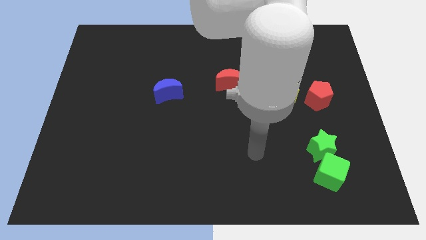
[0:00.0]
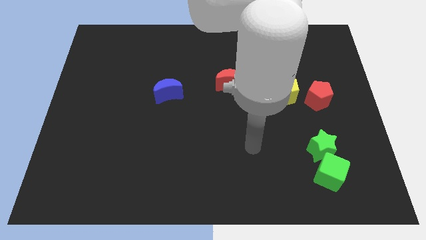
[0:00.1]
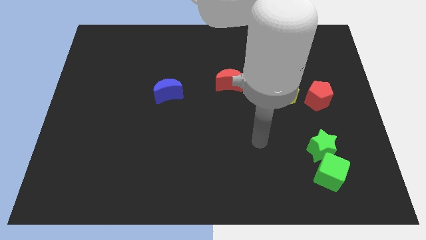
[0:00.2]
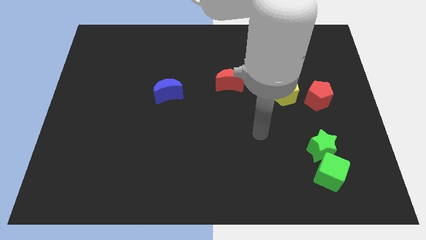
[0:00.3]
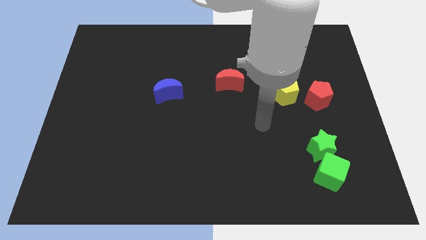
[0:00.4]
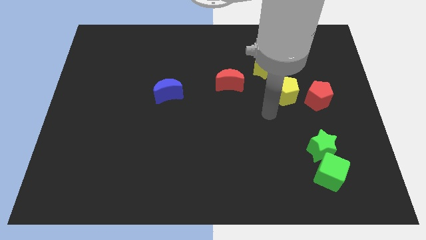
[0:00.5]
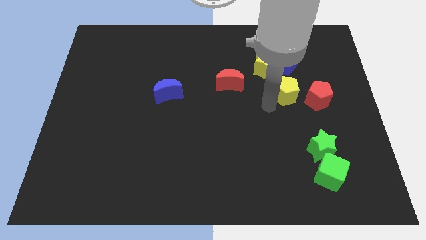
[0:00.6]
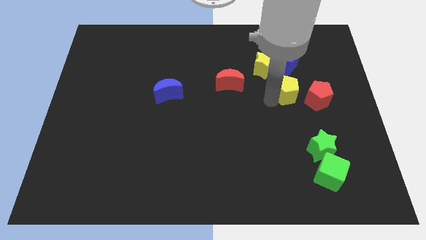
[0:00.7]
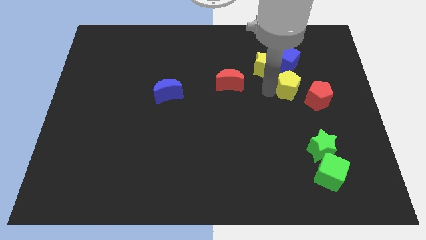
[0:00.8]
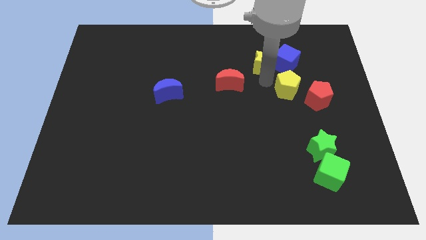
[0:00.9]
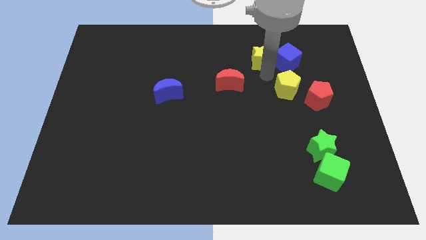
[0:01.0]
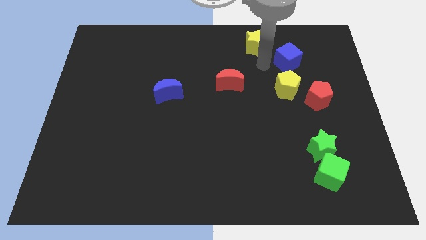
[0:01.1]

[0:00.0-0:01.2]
separate the blue cube from the yellow star

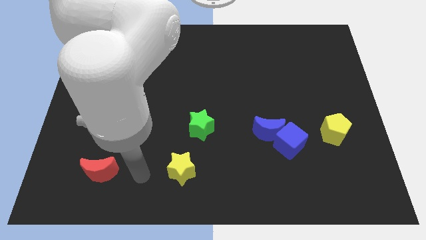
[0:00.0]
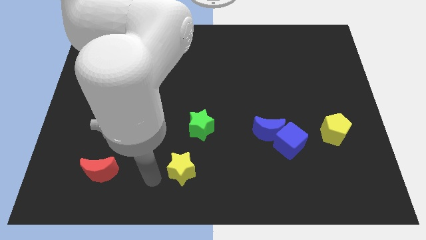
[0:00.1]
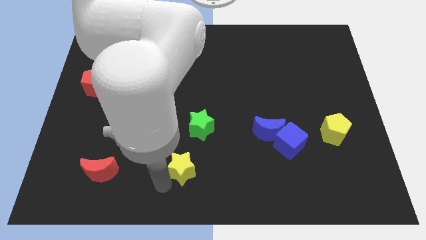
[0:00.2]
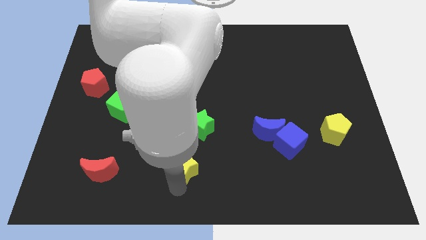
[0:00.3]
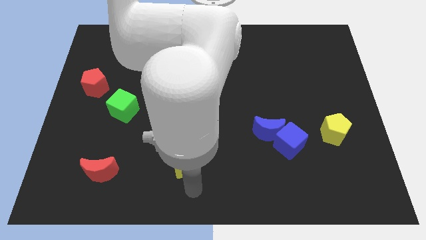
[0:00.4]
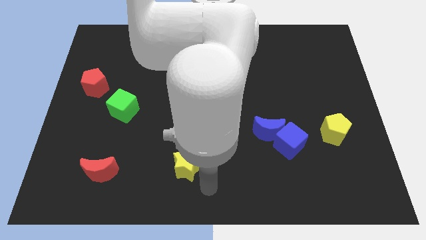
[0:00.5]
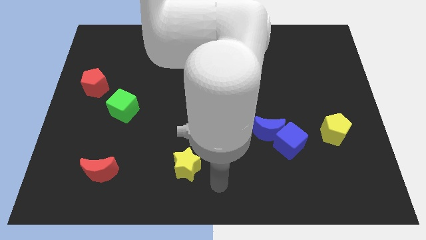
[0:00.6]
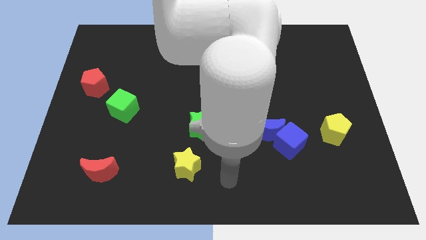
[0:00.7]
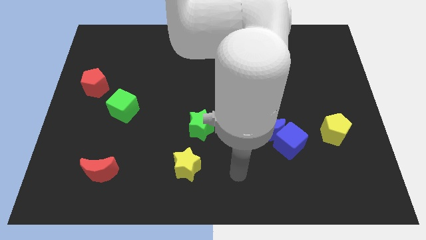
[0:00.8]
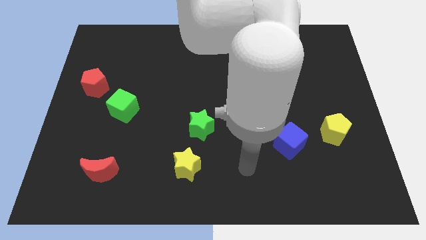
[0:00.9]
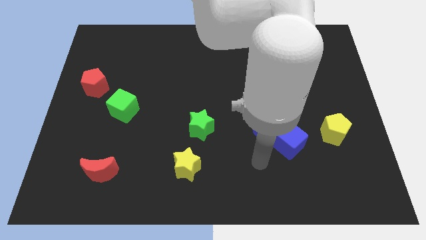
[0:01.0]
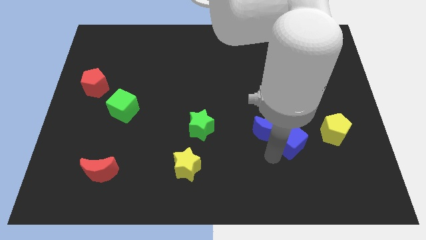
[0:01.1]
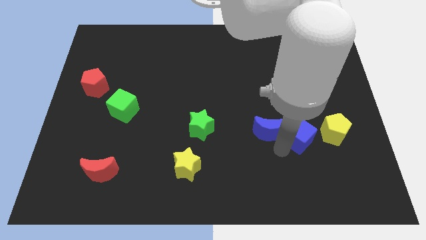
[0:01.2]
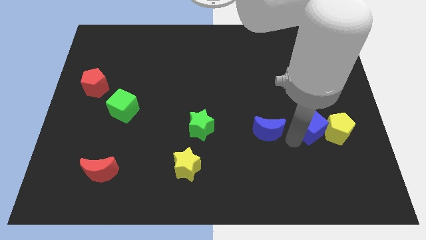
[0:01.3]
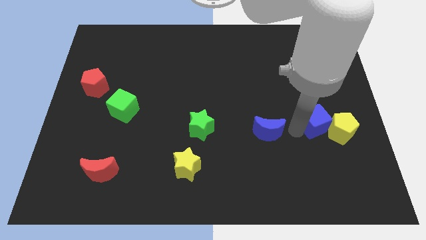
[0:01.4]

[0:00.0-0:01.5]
separate the blue moon from the blue cube

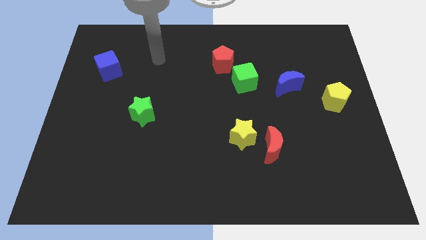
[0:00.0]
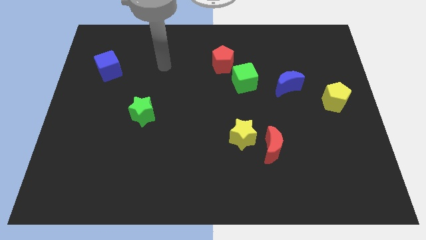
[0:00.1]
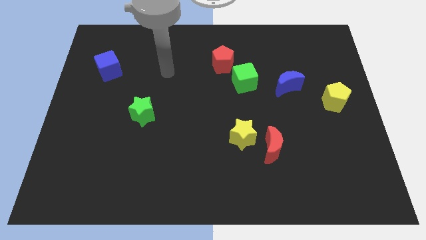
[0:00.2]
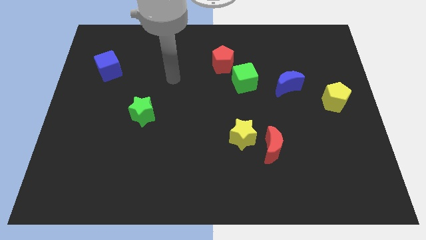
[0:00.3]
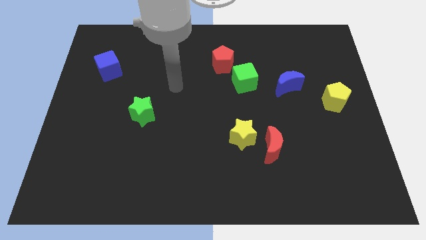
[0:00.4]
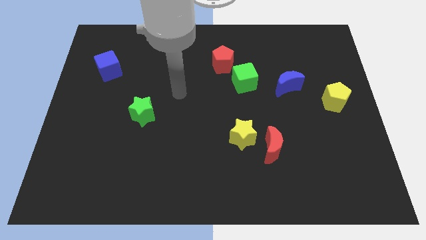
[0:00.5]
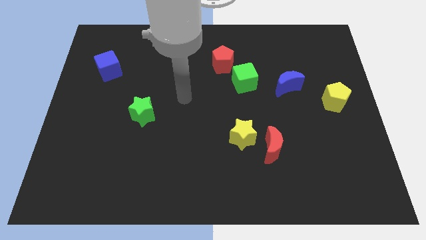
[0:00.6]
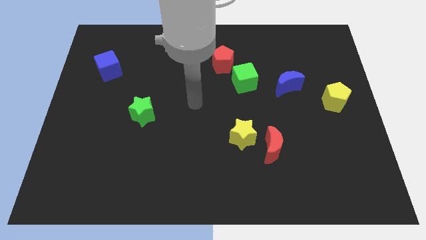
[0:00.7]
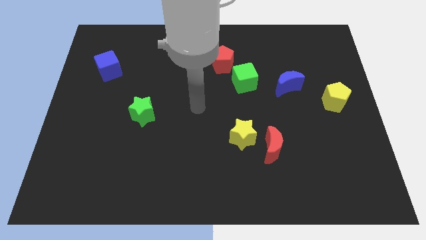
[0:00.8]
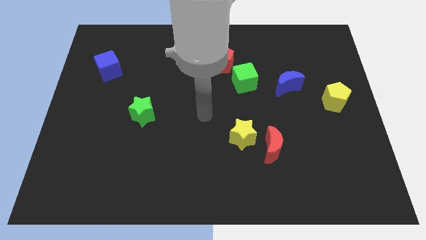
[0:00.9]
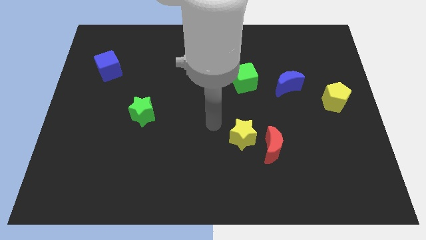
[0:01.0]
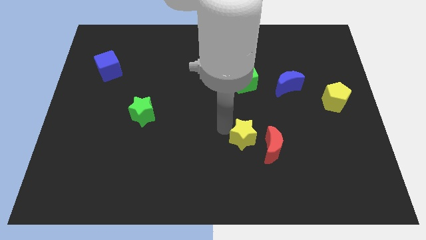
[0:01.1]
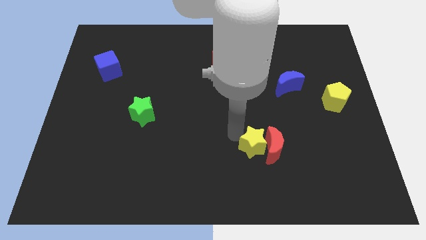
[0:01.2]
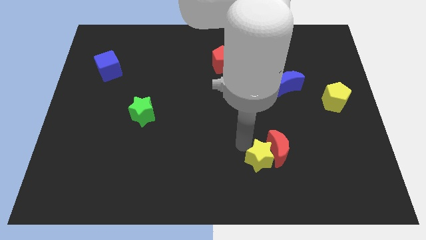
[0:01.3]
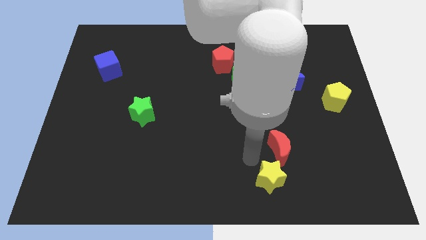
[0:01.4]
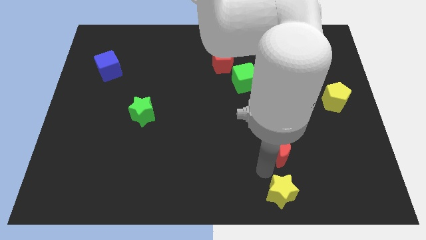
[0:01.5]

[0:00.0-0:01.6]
move the red moon away from the yellow star

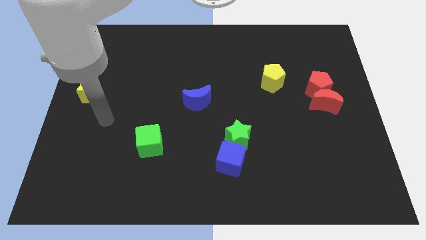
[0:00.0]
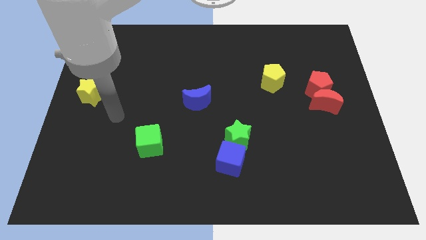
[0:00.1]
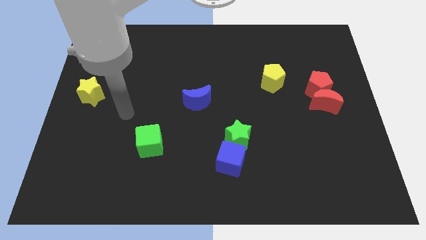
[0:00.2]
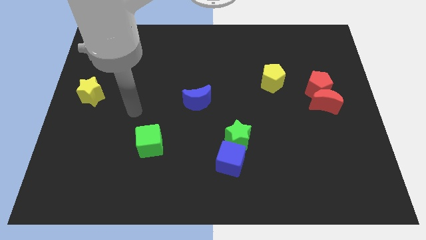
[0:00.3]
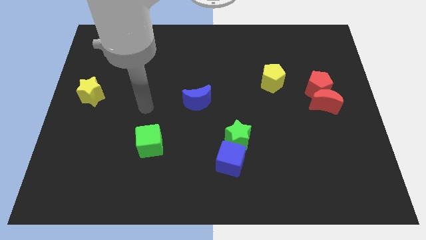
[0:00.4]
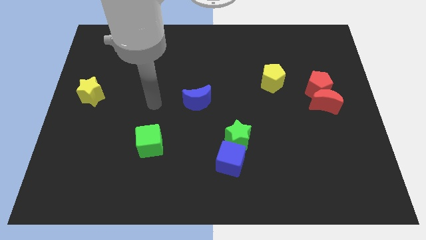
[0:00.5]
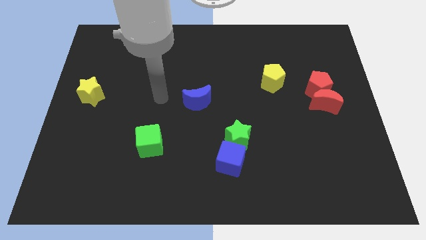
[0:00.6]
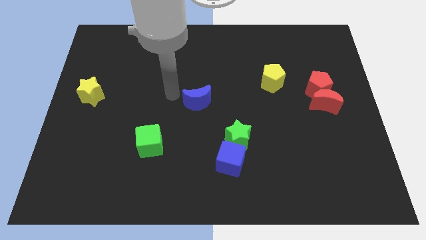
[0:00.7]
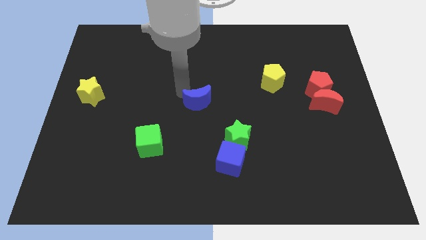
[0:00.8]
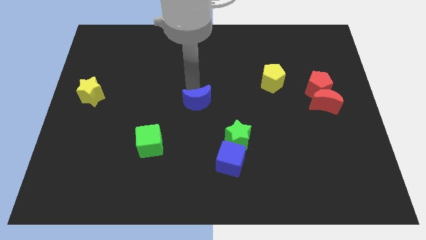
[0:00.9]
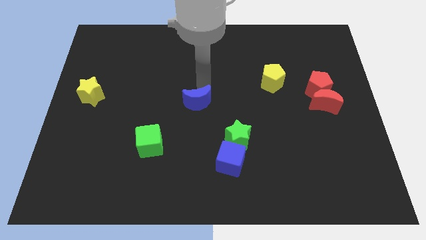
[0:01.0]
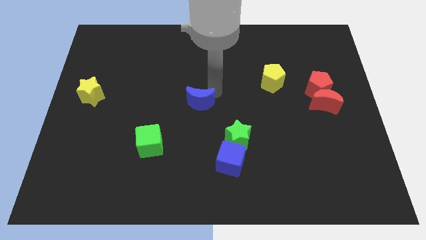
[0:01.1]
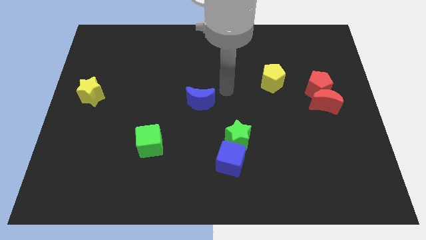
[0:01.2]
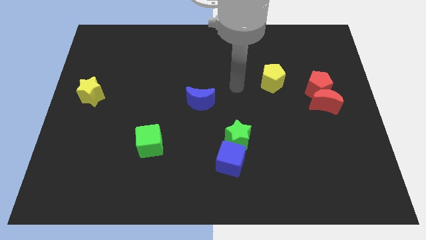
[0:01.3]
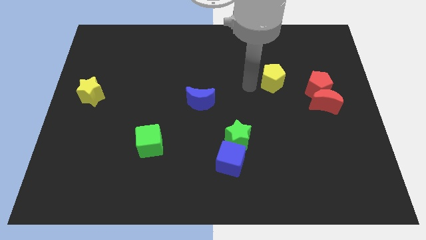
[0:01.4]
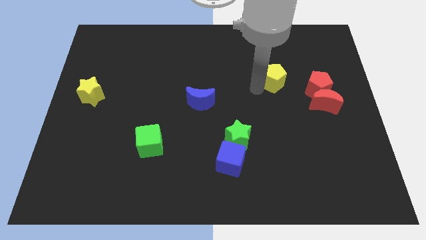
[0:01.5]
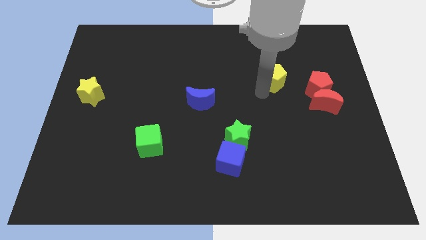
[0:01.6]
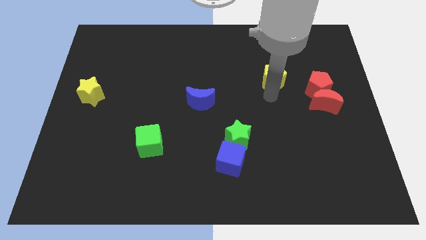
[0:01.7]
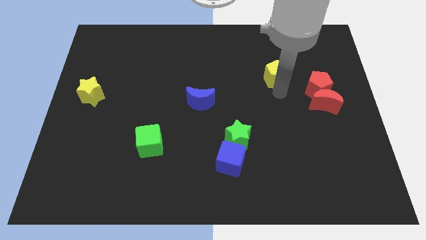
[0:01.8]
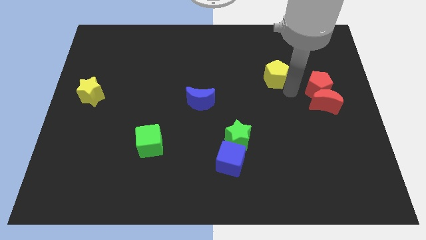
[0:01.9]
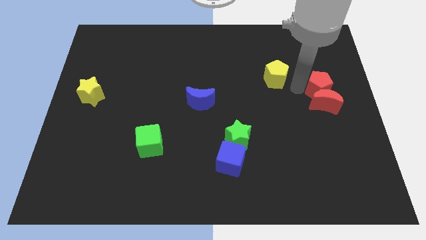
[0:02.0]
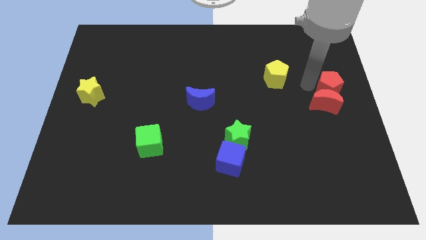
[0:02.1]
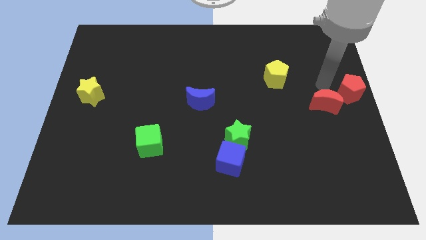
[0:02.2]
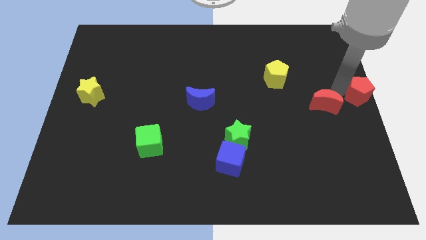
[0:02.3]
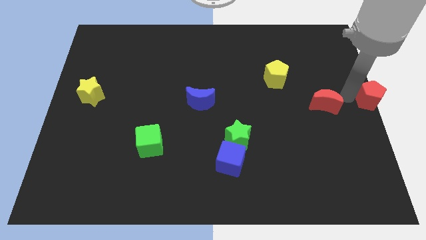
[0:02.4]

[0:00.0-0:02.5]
separate the red moon from the red pentagon

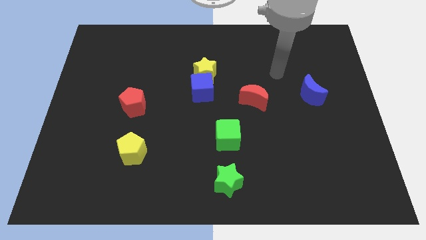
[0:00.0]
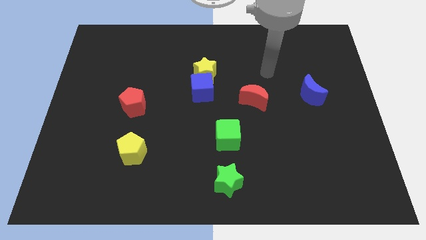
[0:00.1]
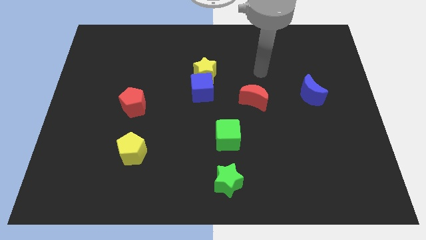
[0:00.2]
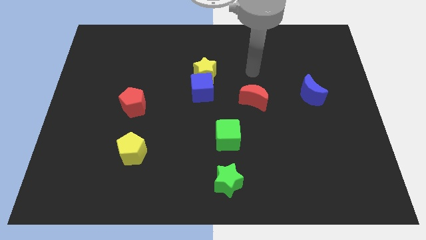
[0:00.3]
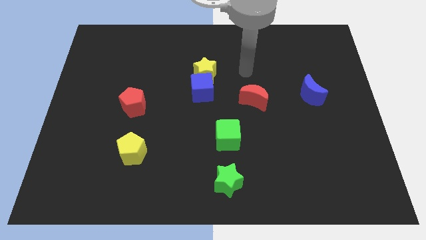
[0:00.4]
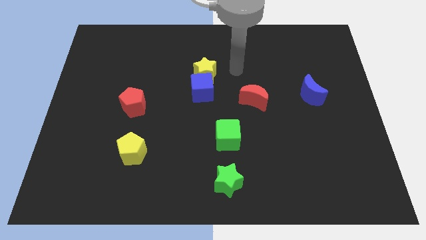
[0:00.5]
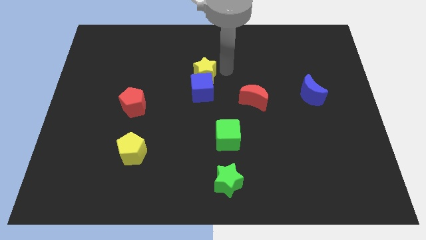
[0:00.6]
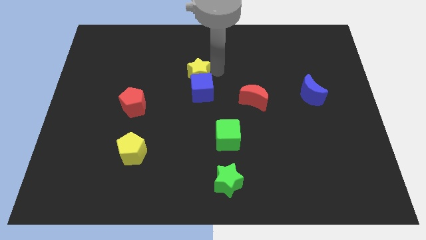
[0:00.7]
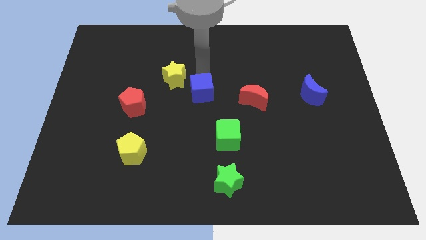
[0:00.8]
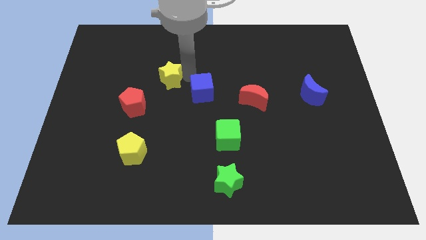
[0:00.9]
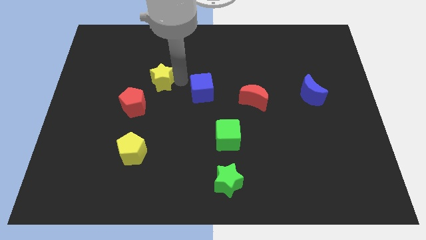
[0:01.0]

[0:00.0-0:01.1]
move the blue cube away from the yellow star

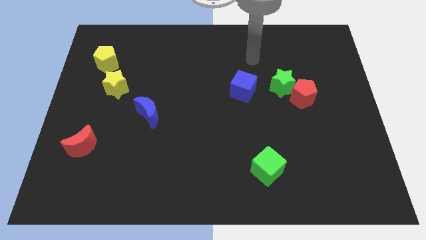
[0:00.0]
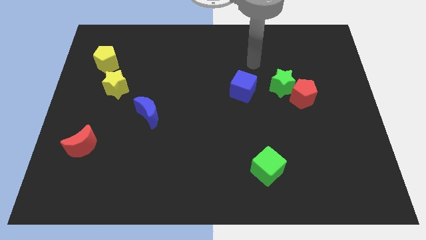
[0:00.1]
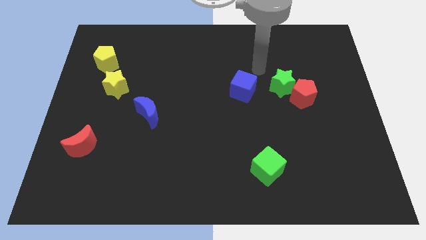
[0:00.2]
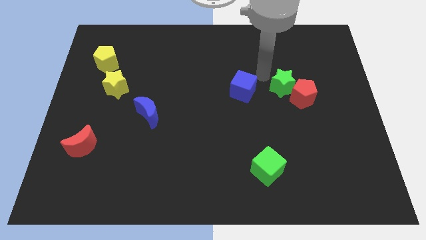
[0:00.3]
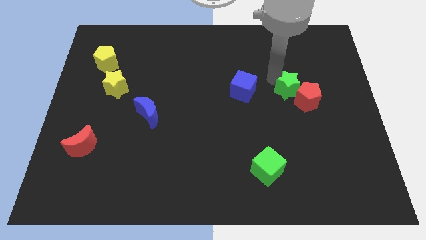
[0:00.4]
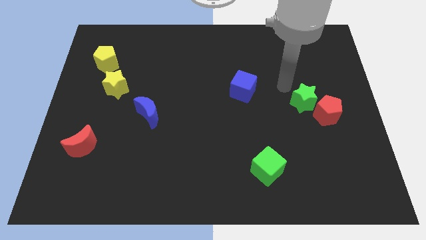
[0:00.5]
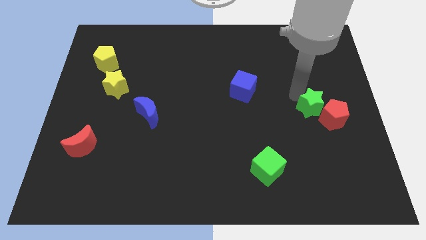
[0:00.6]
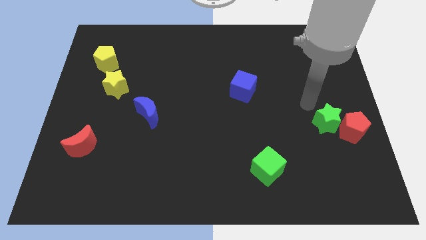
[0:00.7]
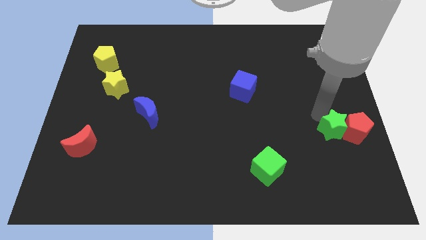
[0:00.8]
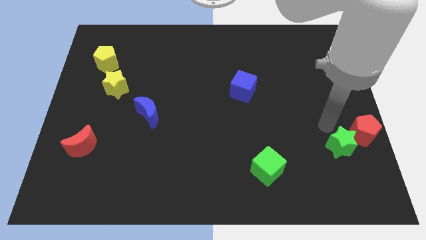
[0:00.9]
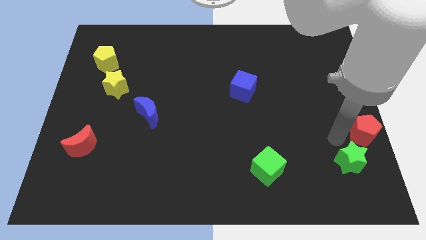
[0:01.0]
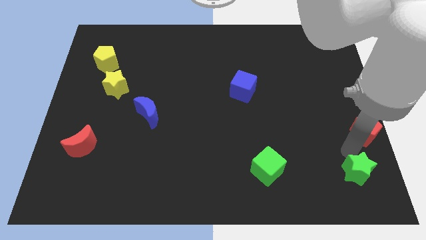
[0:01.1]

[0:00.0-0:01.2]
pull the red pentagon apart from the green star
